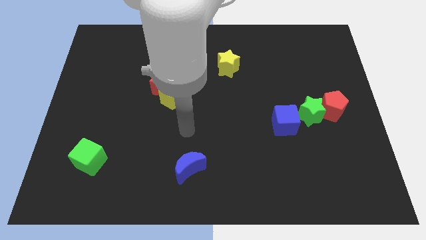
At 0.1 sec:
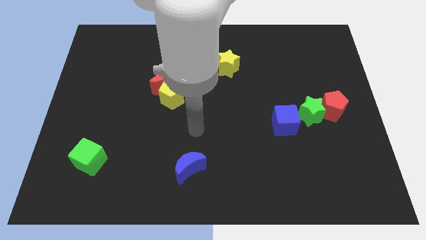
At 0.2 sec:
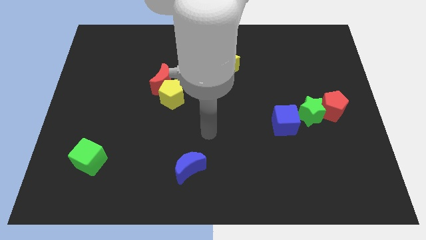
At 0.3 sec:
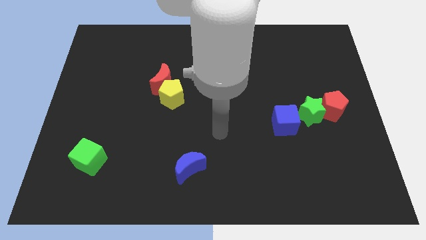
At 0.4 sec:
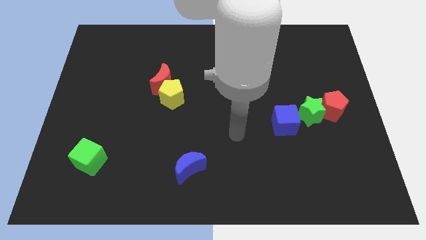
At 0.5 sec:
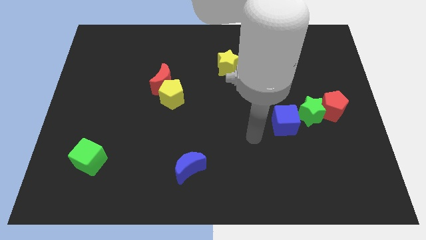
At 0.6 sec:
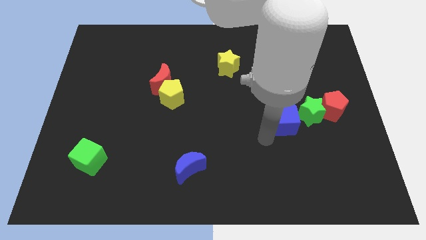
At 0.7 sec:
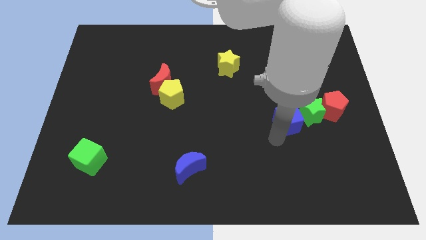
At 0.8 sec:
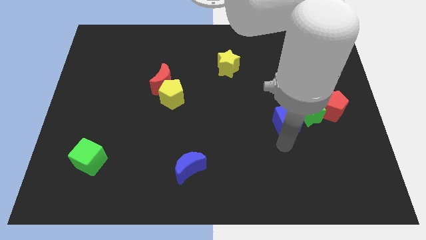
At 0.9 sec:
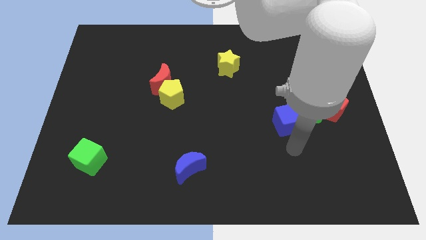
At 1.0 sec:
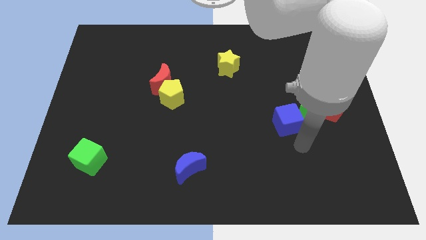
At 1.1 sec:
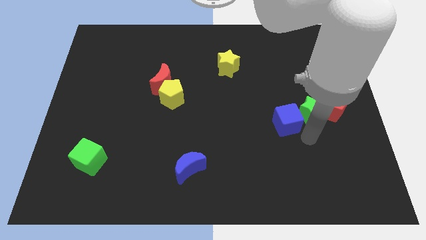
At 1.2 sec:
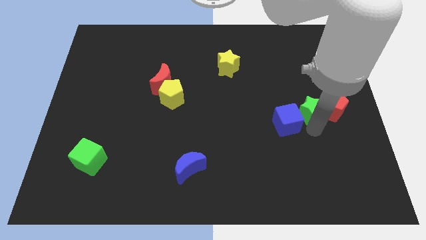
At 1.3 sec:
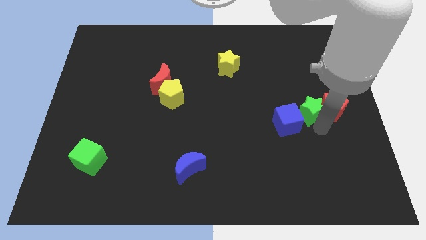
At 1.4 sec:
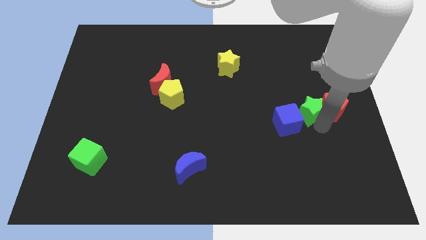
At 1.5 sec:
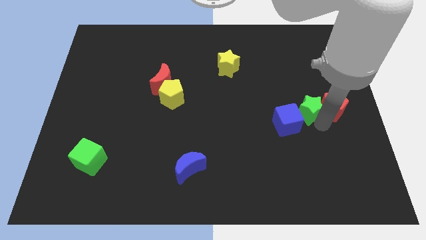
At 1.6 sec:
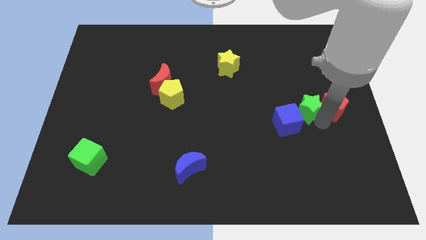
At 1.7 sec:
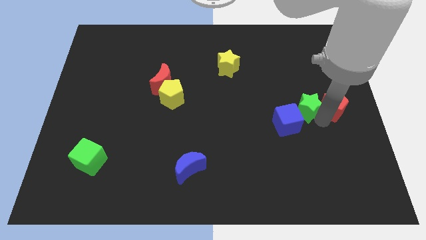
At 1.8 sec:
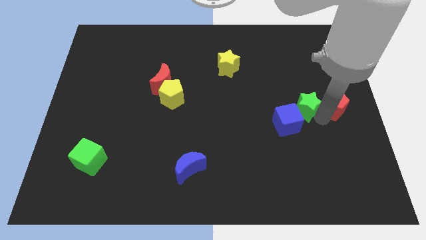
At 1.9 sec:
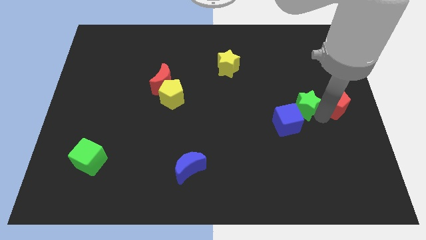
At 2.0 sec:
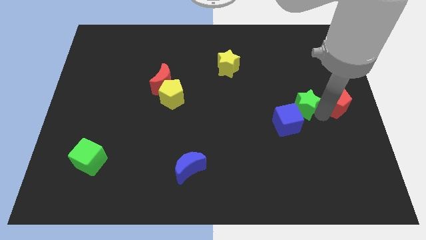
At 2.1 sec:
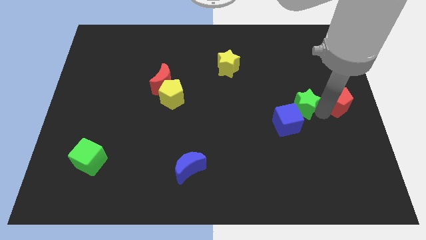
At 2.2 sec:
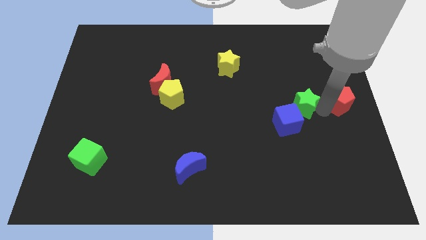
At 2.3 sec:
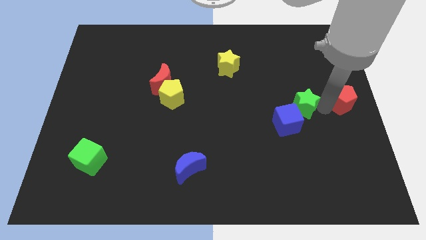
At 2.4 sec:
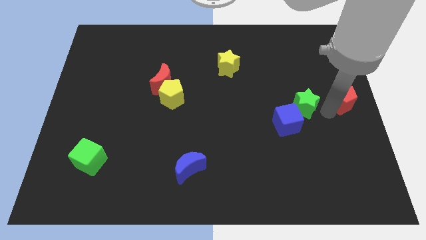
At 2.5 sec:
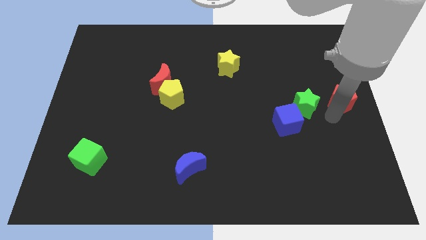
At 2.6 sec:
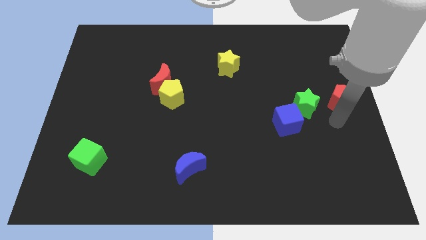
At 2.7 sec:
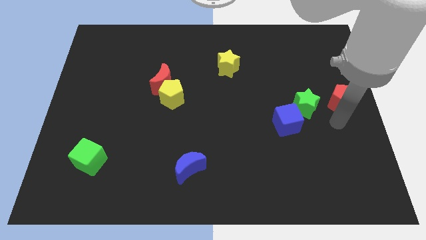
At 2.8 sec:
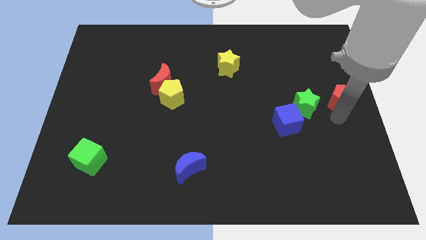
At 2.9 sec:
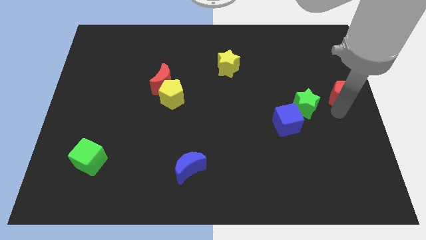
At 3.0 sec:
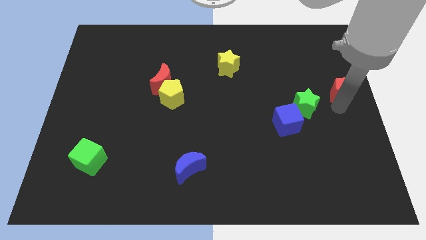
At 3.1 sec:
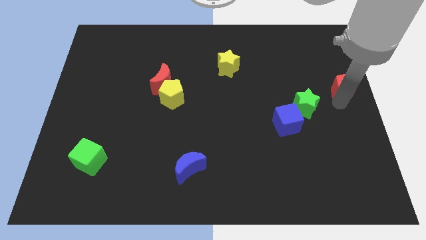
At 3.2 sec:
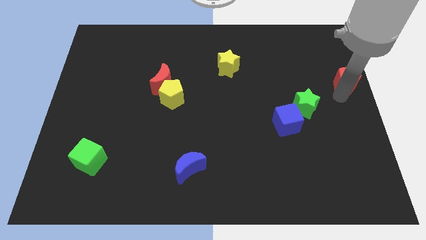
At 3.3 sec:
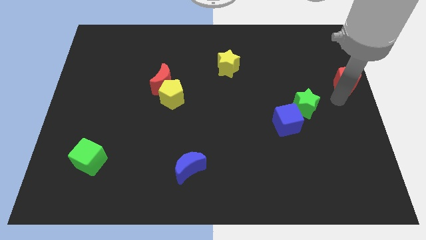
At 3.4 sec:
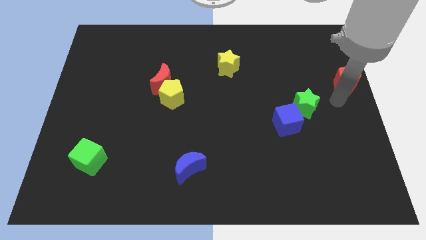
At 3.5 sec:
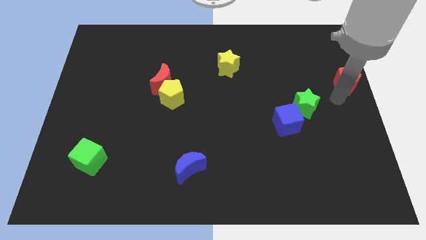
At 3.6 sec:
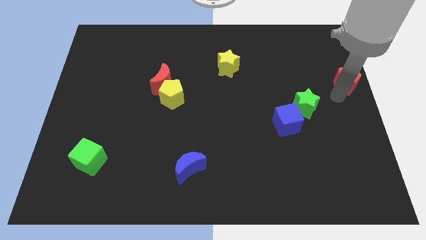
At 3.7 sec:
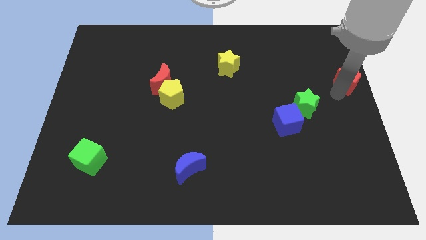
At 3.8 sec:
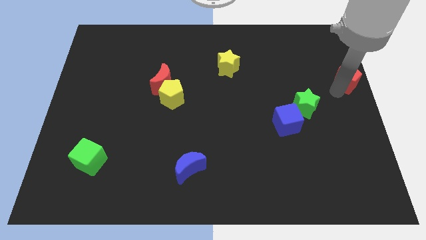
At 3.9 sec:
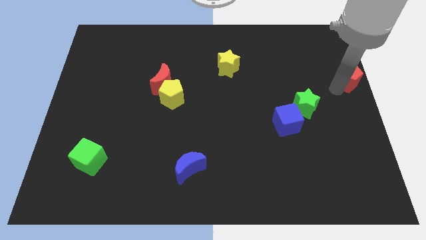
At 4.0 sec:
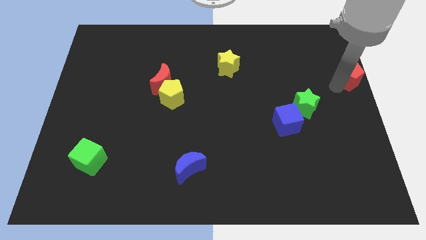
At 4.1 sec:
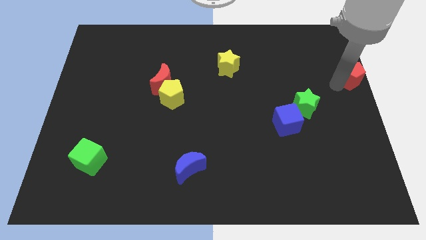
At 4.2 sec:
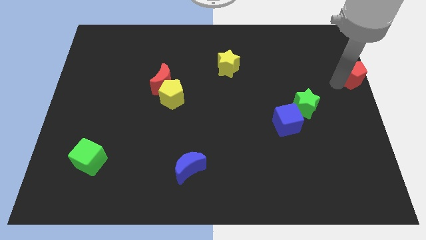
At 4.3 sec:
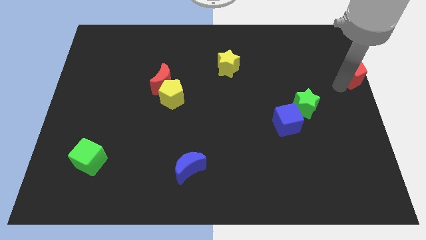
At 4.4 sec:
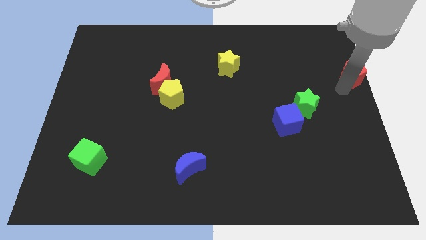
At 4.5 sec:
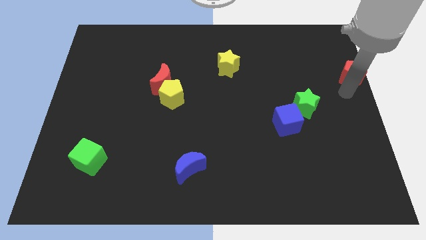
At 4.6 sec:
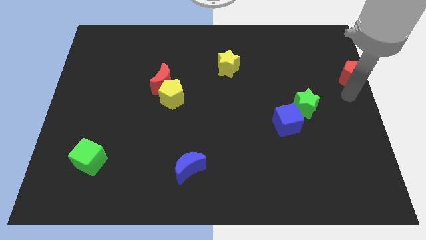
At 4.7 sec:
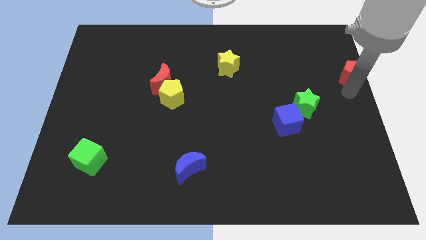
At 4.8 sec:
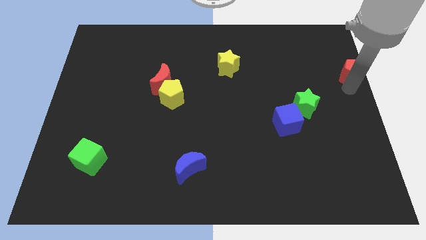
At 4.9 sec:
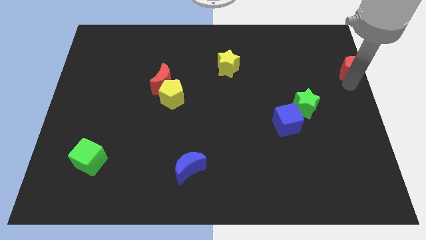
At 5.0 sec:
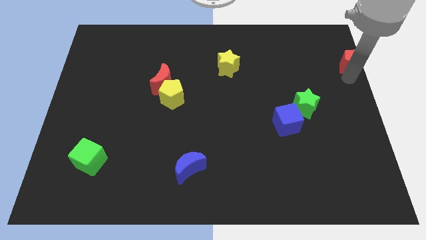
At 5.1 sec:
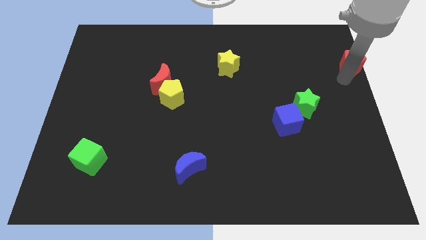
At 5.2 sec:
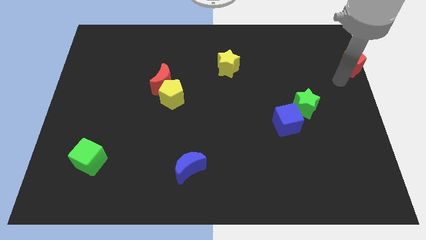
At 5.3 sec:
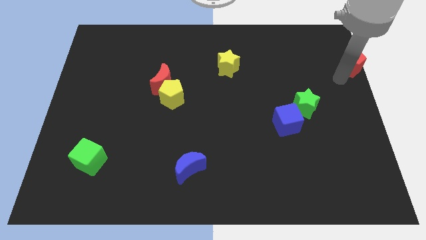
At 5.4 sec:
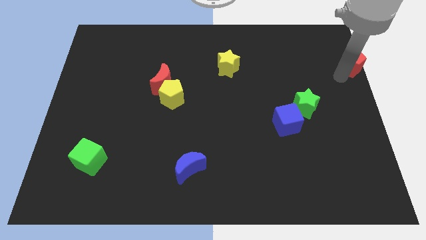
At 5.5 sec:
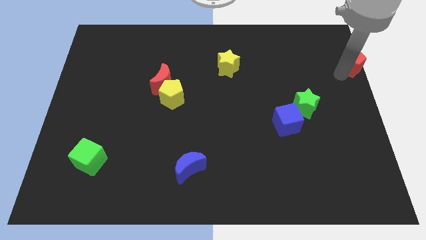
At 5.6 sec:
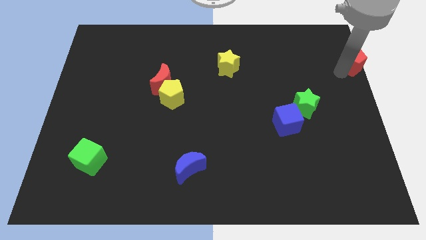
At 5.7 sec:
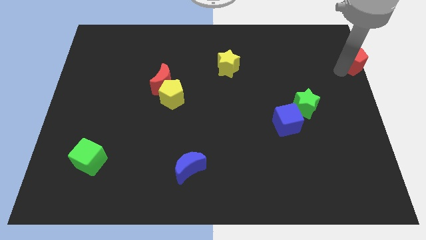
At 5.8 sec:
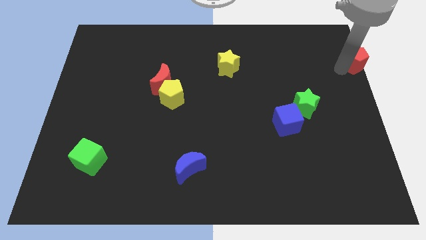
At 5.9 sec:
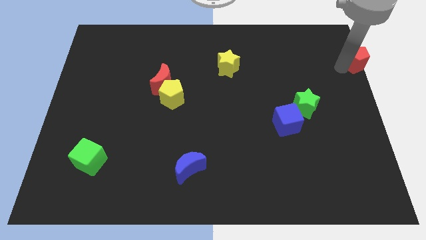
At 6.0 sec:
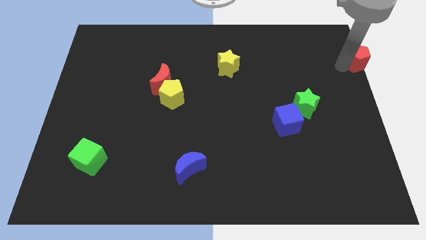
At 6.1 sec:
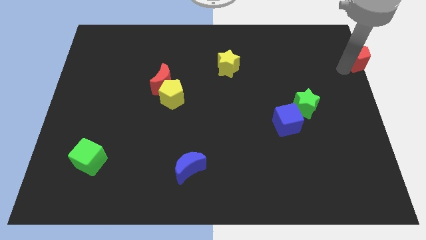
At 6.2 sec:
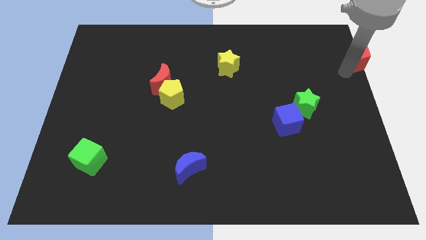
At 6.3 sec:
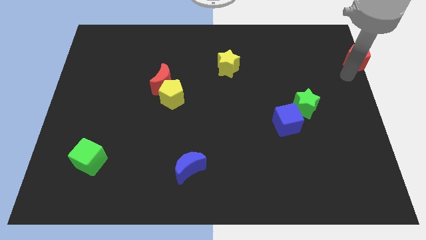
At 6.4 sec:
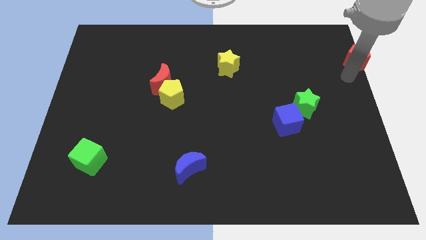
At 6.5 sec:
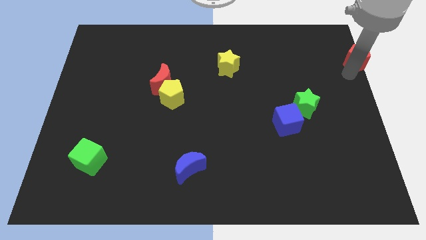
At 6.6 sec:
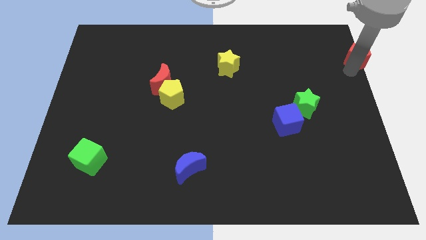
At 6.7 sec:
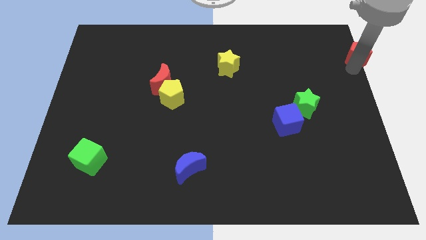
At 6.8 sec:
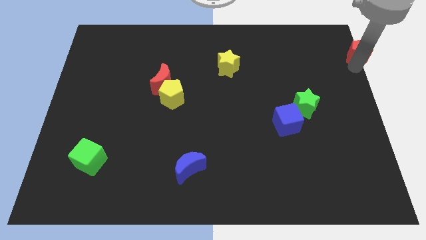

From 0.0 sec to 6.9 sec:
move the red pentagon to the upper right corner

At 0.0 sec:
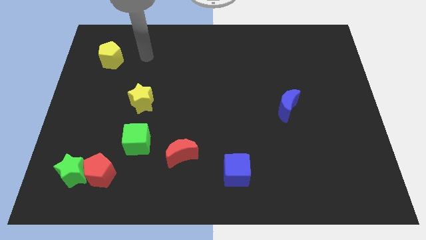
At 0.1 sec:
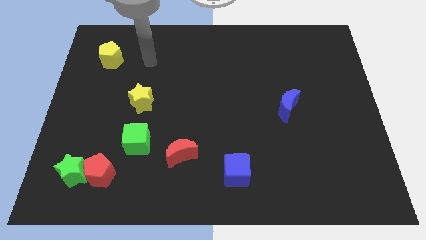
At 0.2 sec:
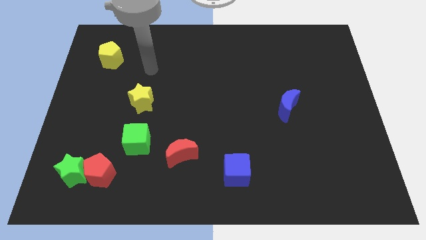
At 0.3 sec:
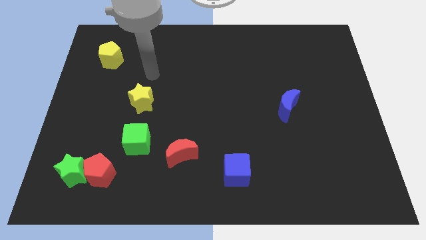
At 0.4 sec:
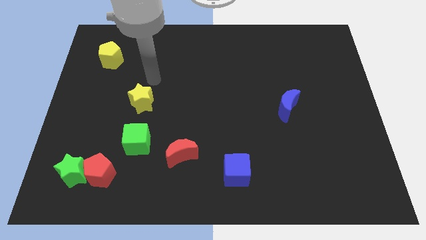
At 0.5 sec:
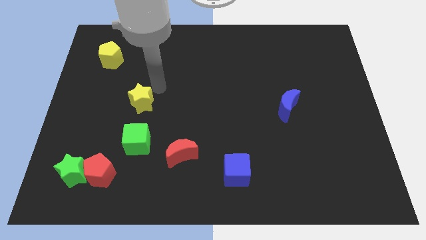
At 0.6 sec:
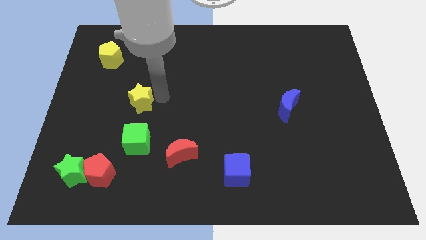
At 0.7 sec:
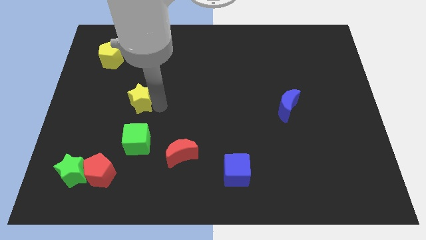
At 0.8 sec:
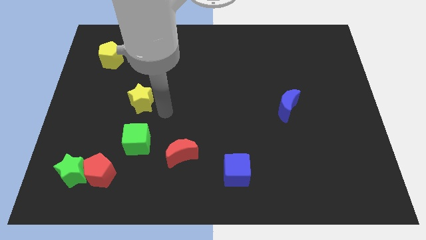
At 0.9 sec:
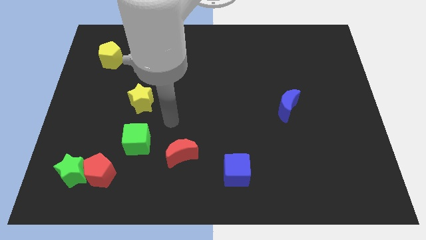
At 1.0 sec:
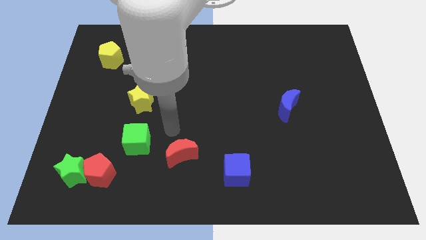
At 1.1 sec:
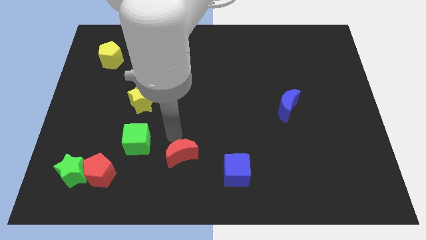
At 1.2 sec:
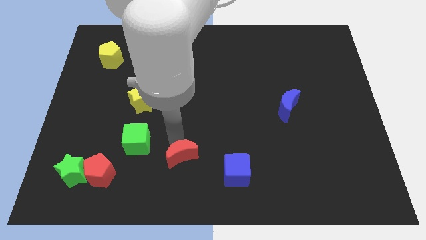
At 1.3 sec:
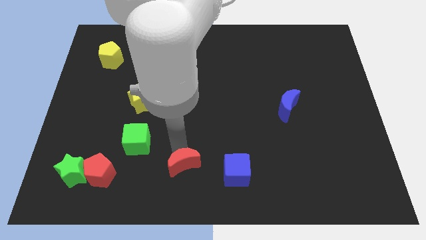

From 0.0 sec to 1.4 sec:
move the red moon to the bottom side
